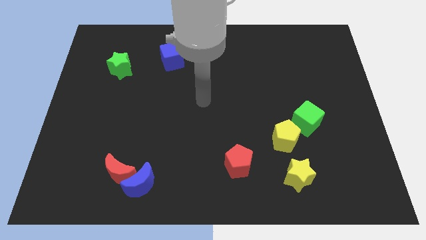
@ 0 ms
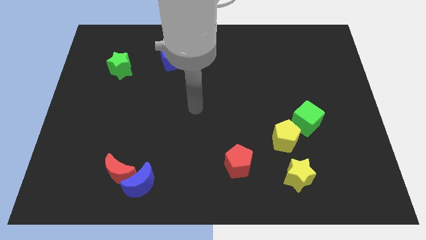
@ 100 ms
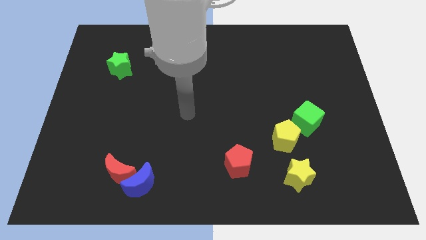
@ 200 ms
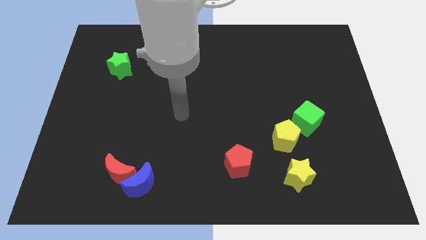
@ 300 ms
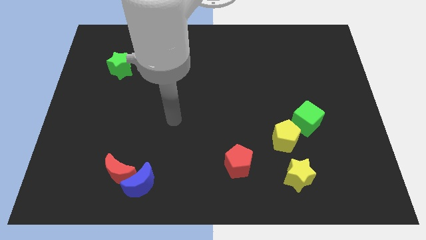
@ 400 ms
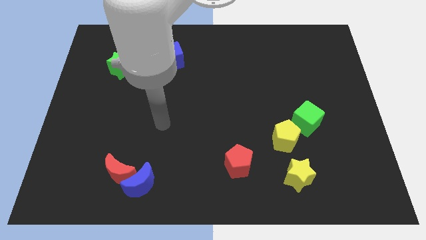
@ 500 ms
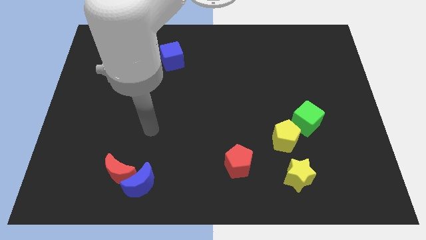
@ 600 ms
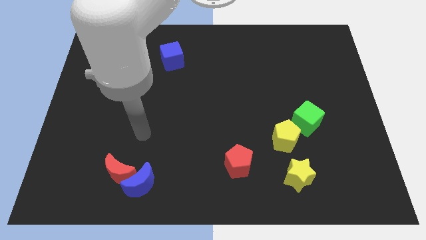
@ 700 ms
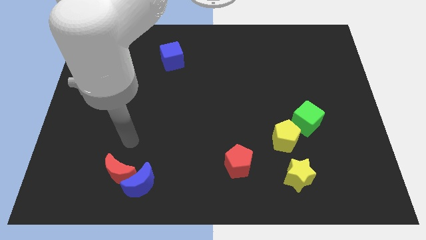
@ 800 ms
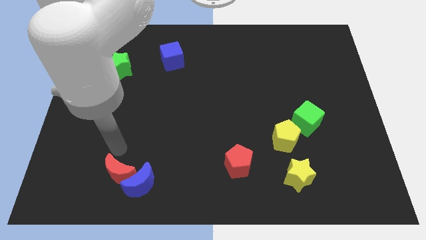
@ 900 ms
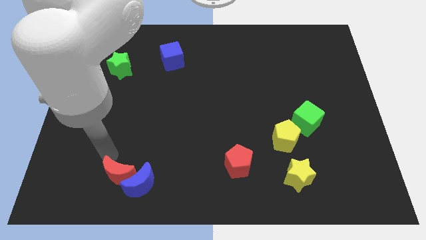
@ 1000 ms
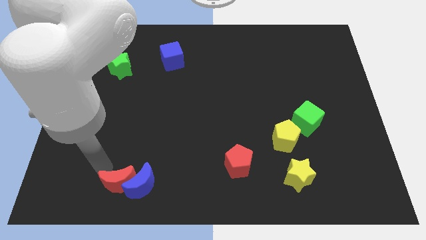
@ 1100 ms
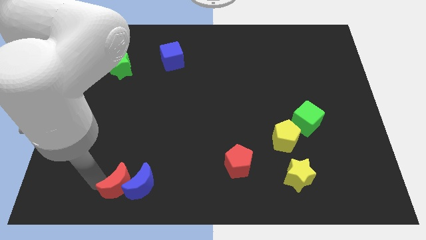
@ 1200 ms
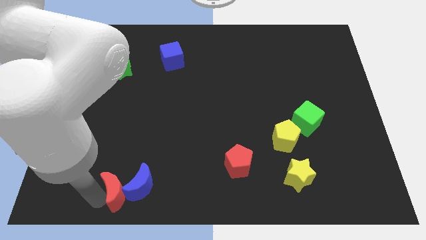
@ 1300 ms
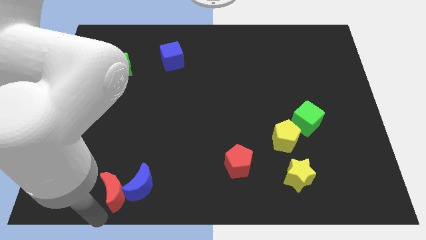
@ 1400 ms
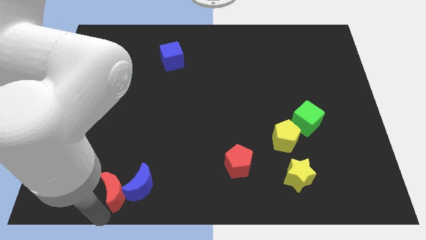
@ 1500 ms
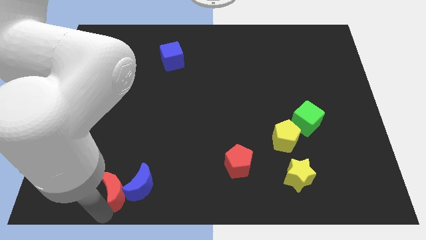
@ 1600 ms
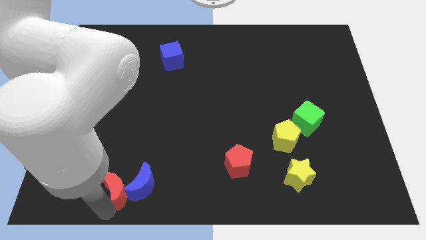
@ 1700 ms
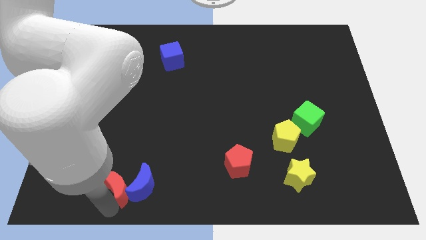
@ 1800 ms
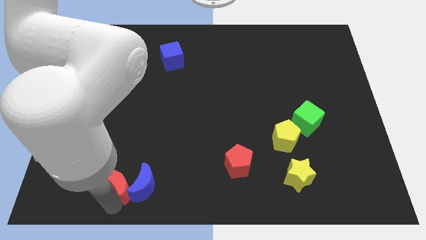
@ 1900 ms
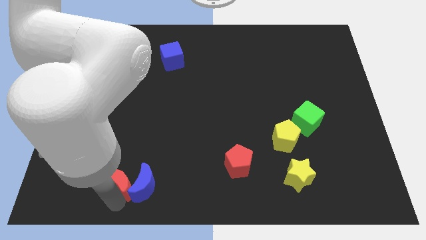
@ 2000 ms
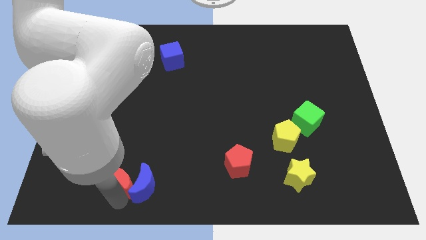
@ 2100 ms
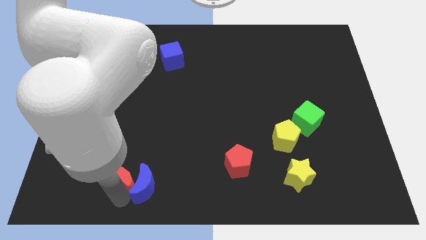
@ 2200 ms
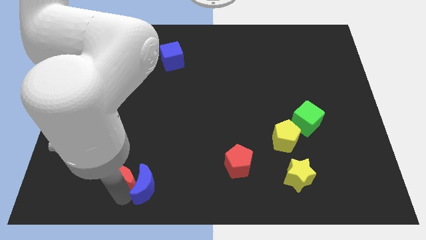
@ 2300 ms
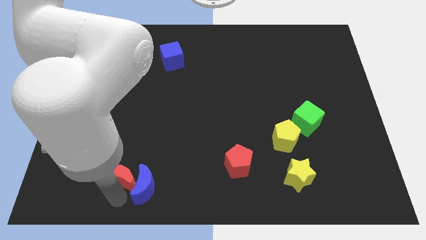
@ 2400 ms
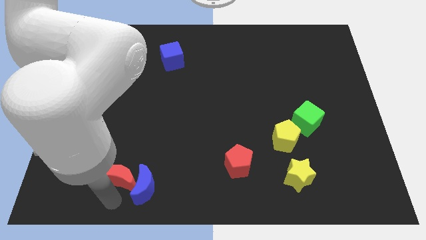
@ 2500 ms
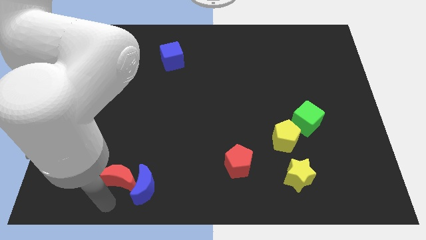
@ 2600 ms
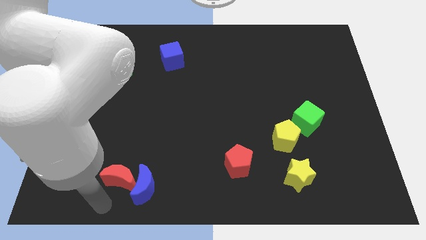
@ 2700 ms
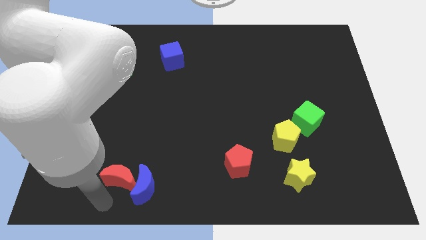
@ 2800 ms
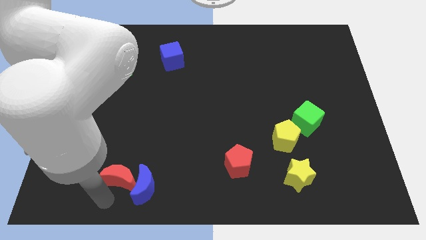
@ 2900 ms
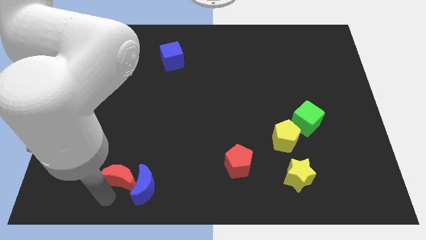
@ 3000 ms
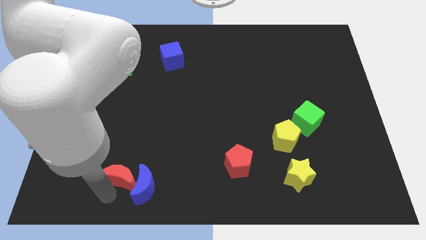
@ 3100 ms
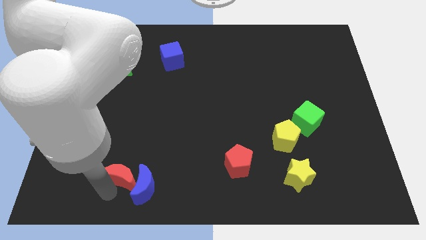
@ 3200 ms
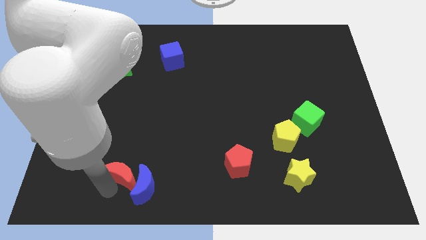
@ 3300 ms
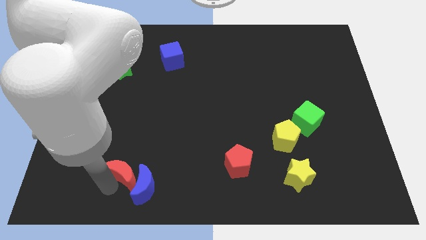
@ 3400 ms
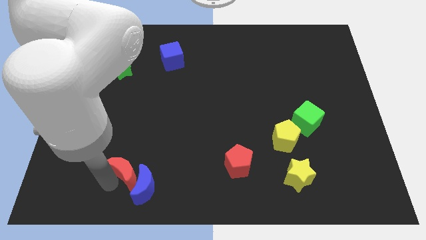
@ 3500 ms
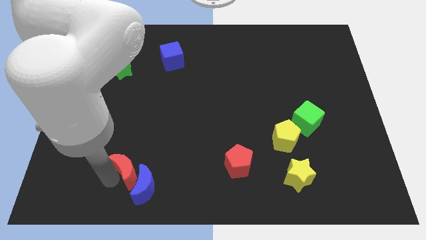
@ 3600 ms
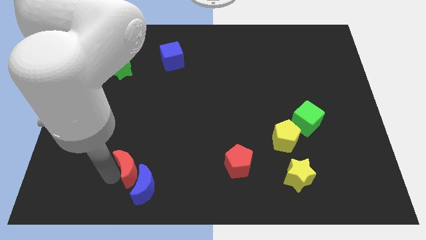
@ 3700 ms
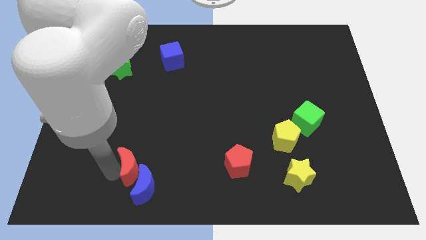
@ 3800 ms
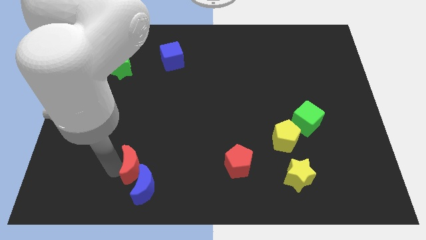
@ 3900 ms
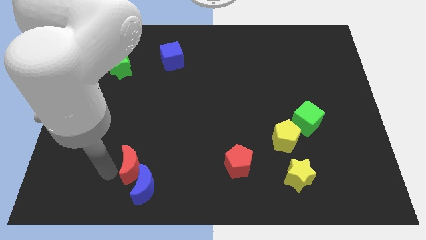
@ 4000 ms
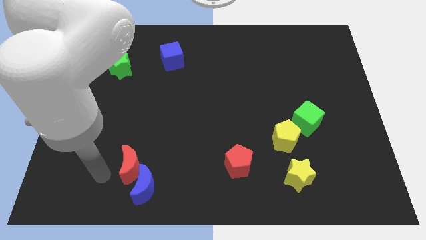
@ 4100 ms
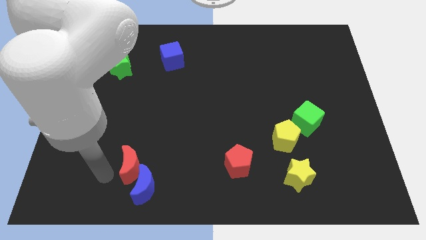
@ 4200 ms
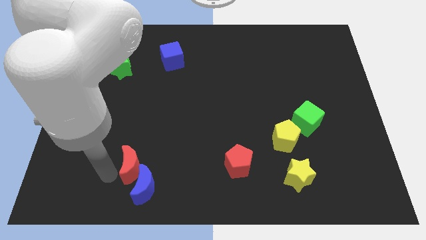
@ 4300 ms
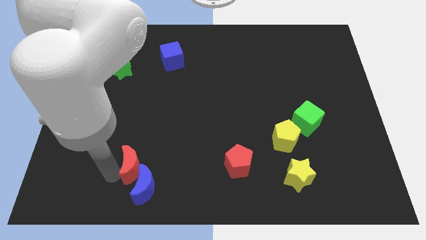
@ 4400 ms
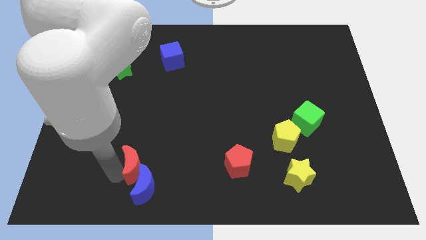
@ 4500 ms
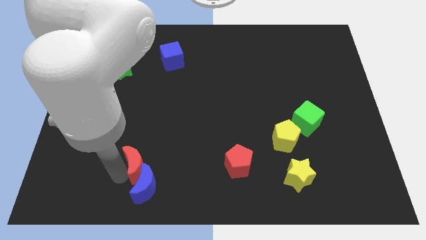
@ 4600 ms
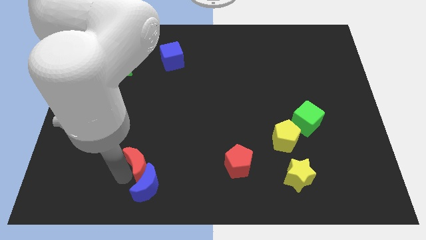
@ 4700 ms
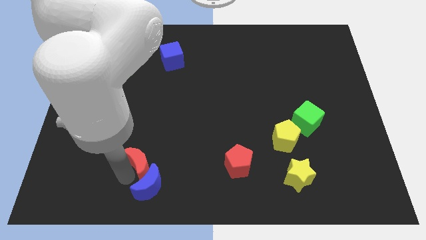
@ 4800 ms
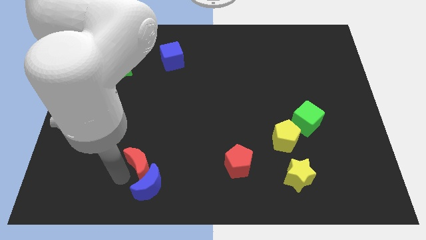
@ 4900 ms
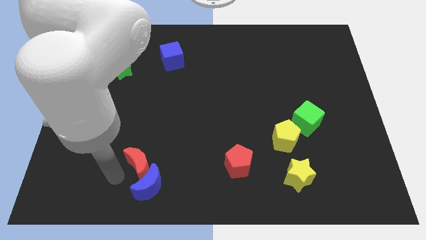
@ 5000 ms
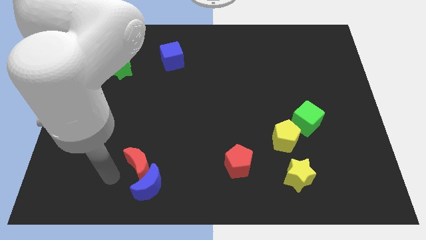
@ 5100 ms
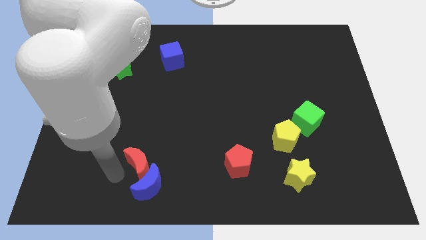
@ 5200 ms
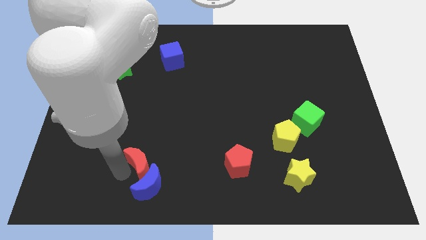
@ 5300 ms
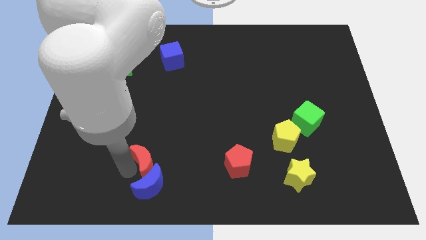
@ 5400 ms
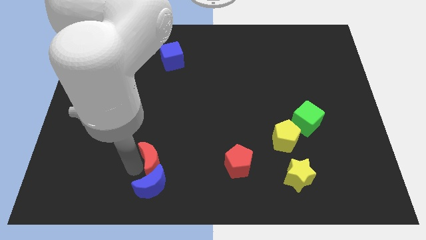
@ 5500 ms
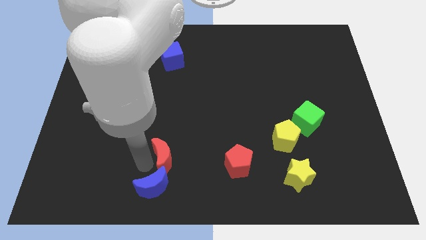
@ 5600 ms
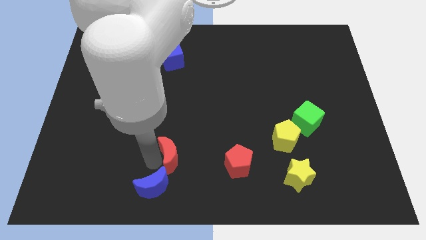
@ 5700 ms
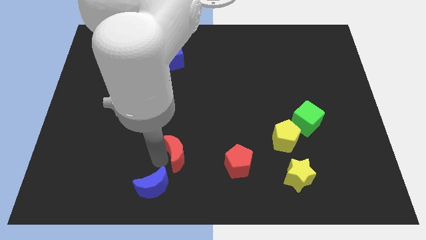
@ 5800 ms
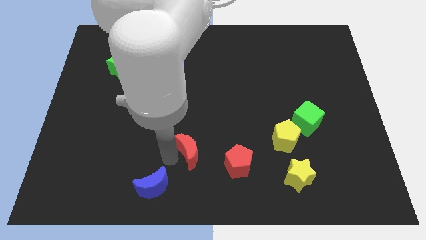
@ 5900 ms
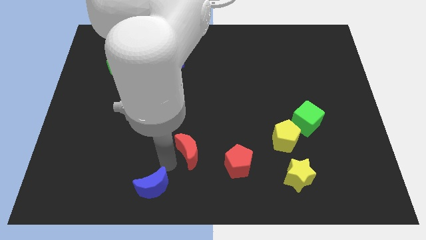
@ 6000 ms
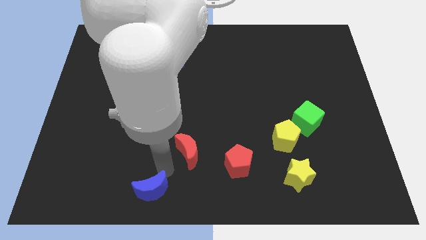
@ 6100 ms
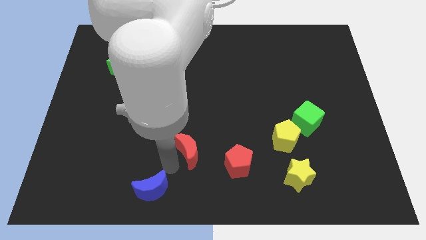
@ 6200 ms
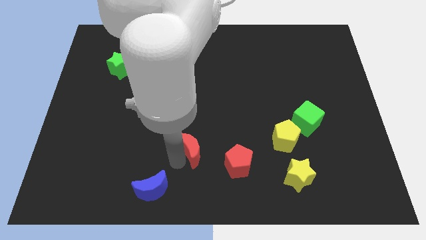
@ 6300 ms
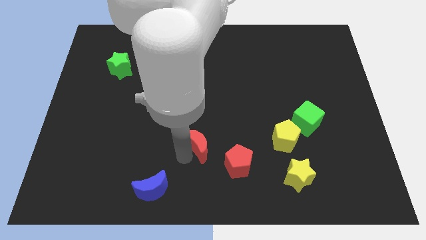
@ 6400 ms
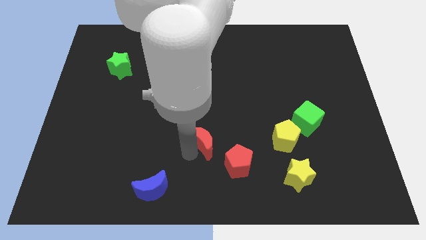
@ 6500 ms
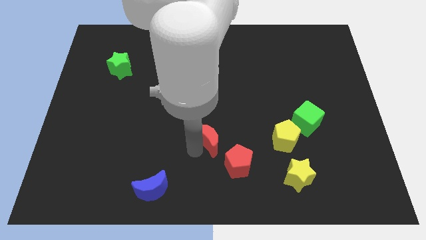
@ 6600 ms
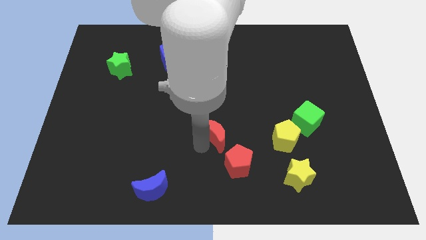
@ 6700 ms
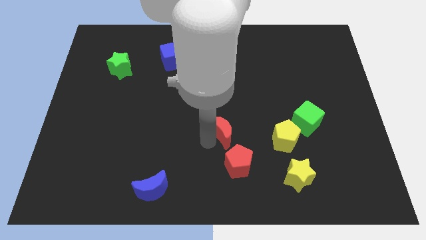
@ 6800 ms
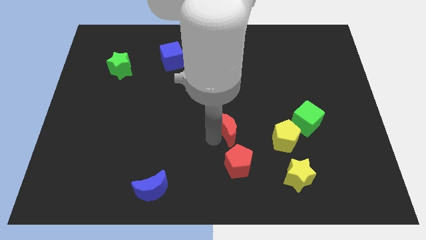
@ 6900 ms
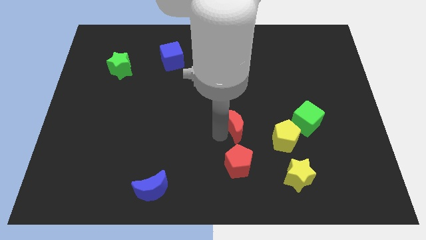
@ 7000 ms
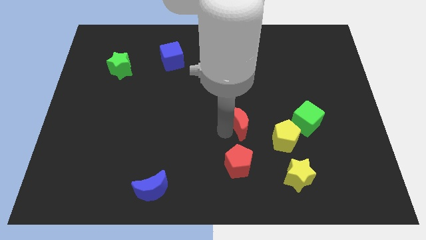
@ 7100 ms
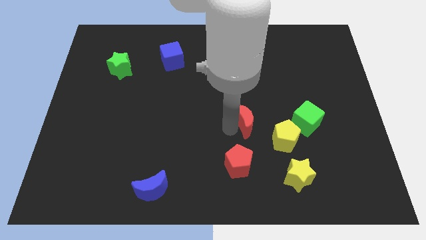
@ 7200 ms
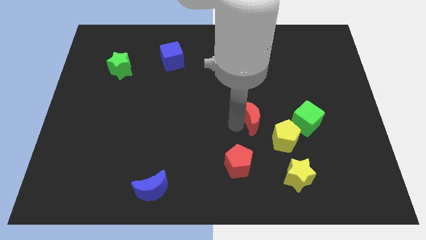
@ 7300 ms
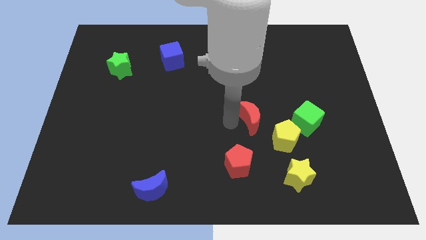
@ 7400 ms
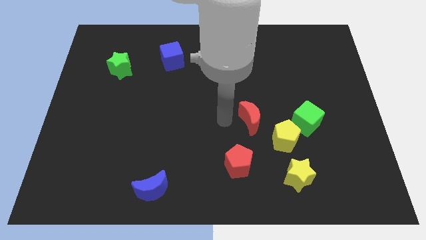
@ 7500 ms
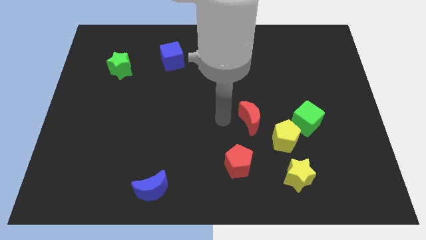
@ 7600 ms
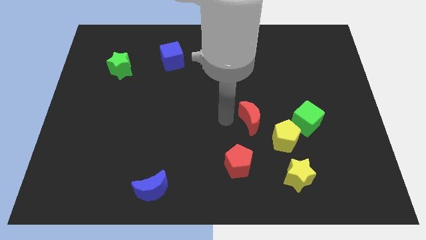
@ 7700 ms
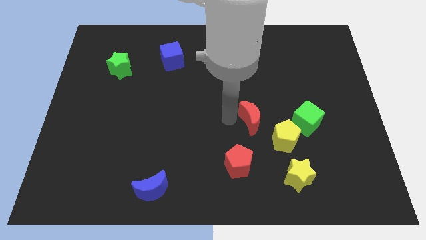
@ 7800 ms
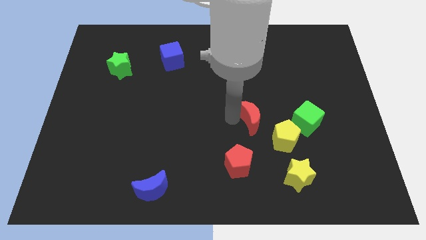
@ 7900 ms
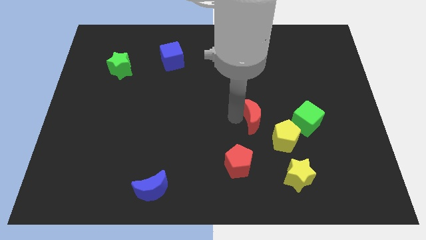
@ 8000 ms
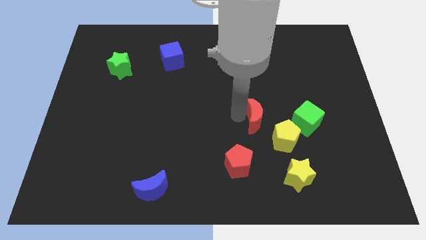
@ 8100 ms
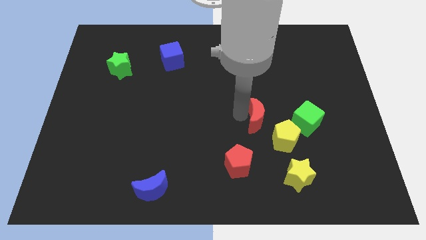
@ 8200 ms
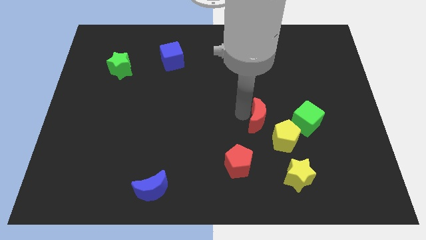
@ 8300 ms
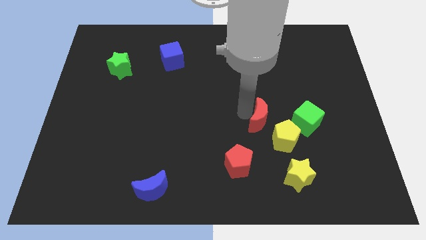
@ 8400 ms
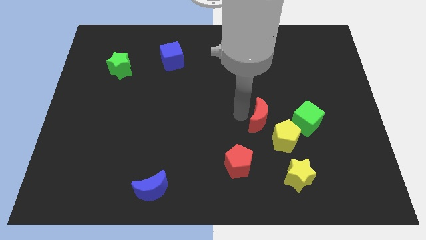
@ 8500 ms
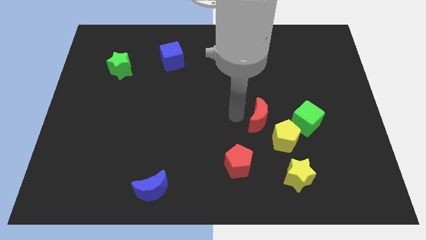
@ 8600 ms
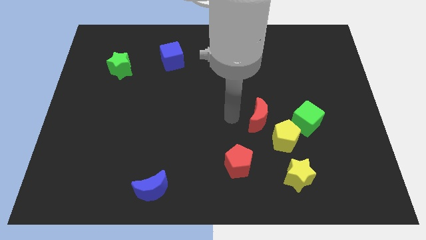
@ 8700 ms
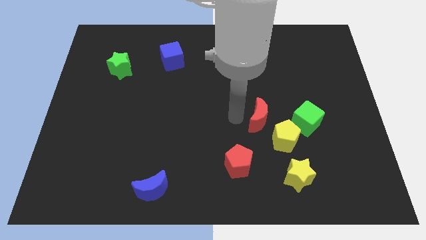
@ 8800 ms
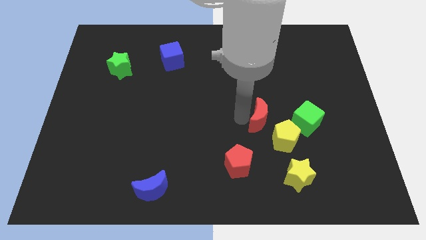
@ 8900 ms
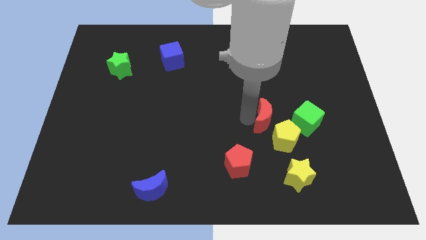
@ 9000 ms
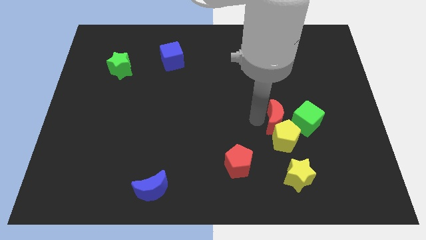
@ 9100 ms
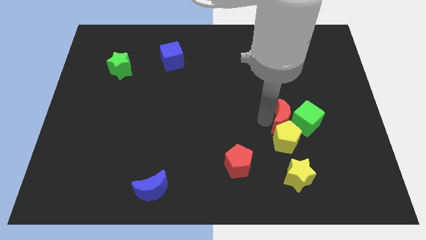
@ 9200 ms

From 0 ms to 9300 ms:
put the red moon close to the green cube
